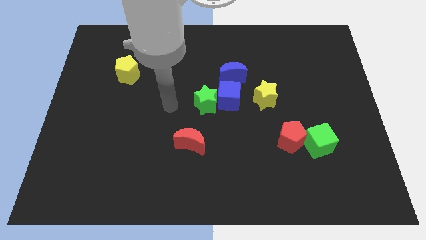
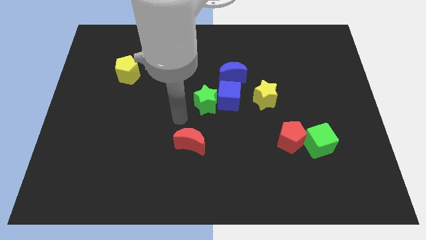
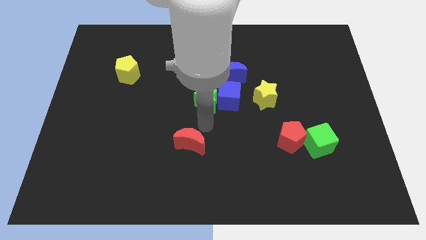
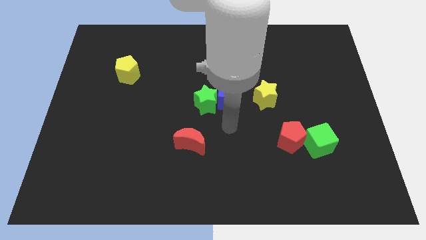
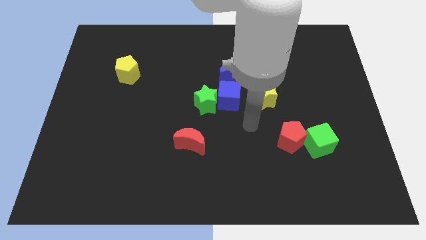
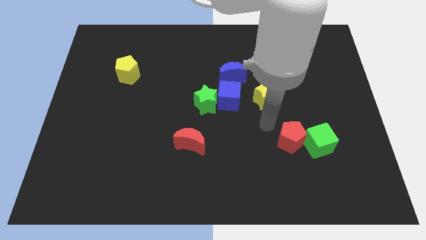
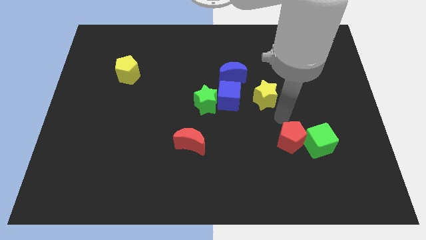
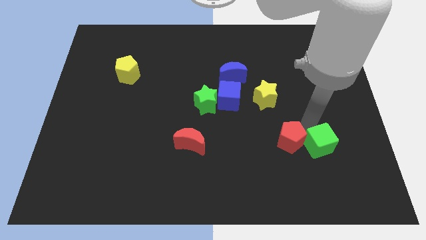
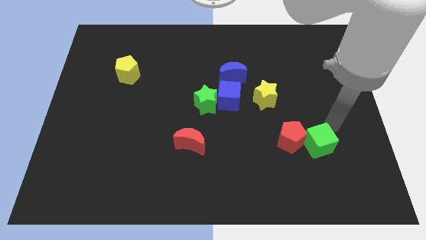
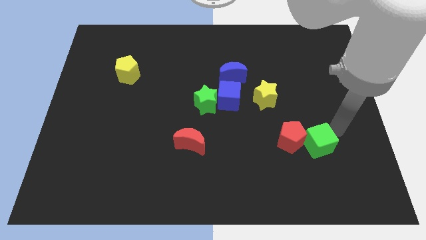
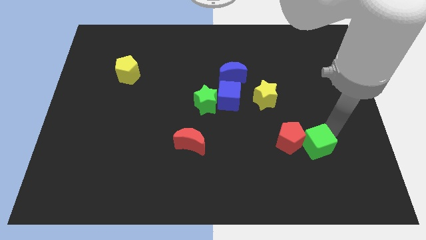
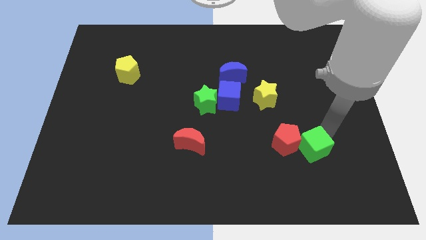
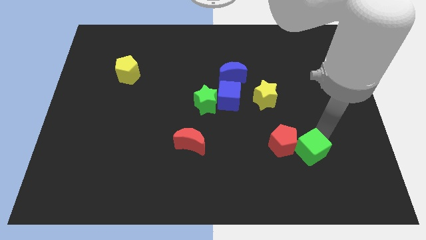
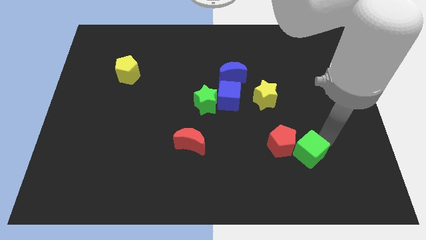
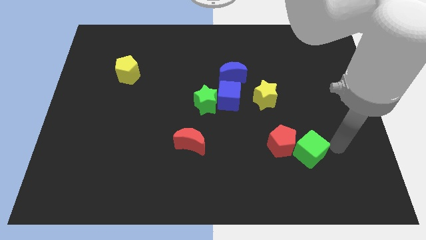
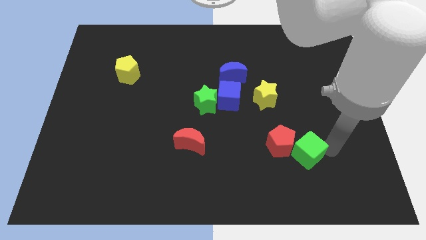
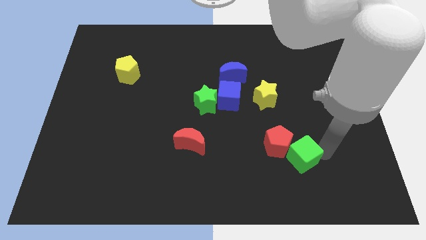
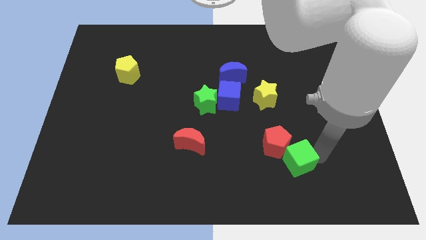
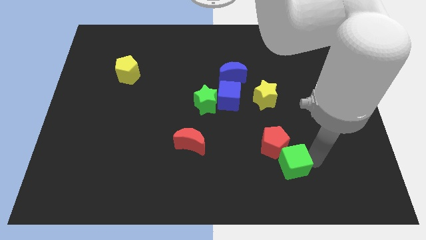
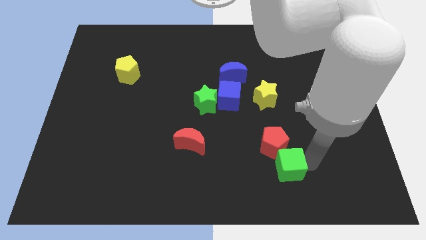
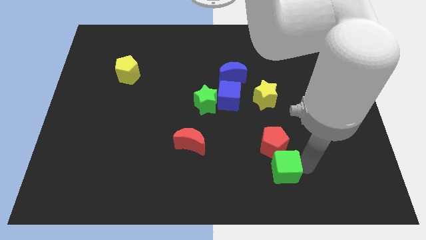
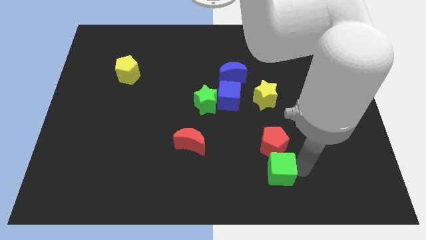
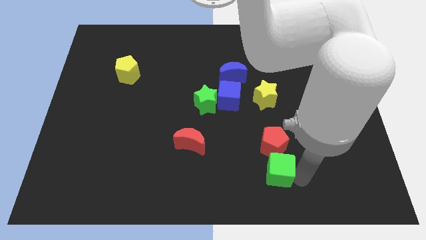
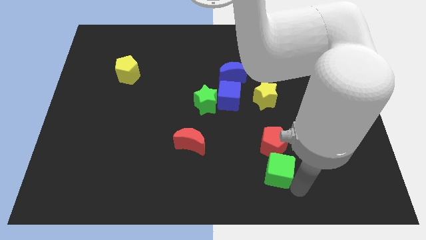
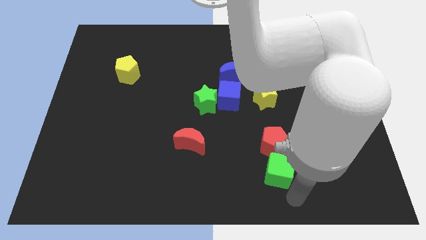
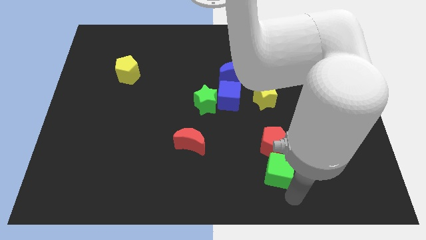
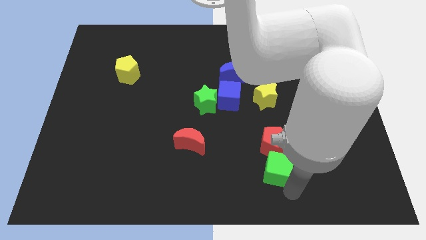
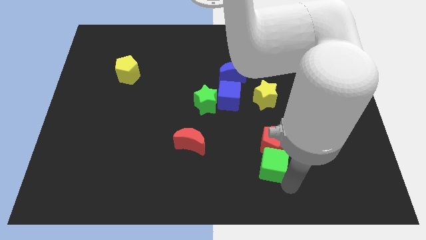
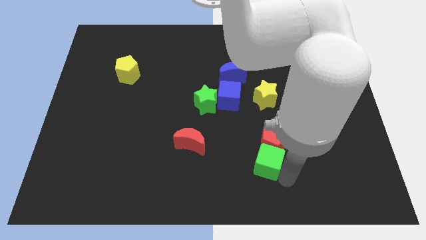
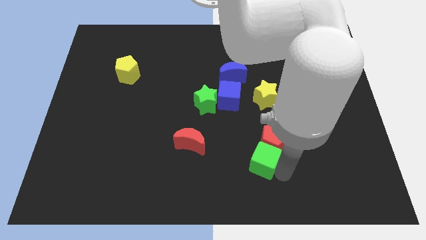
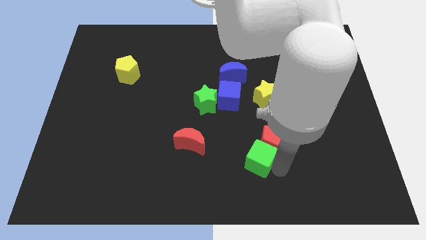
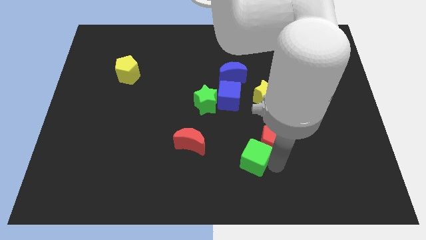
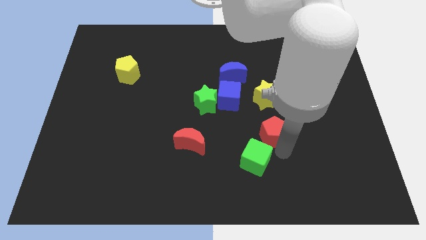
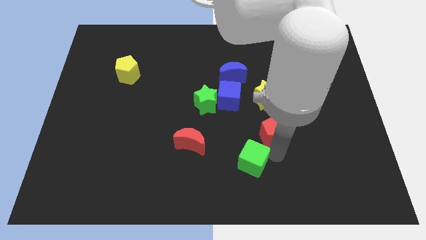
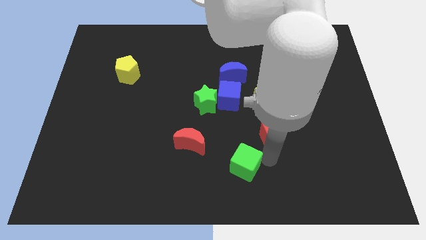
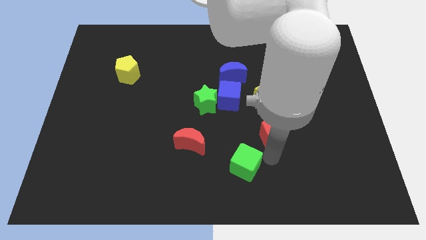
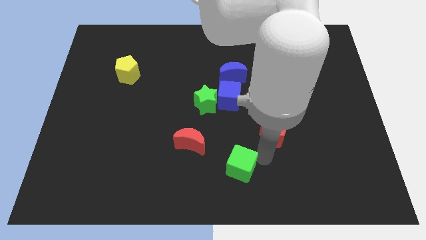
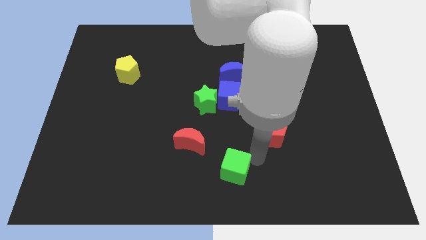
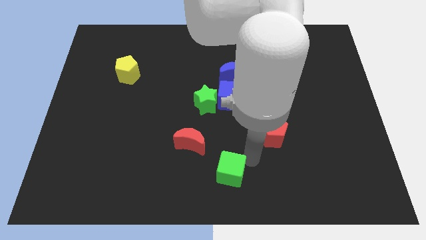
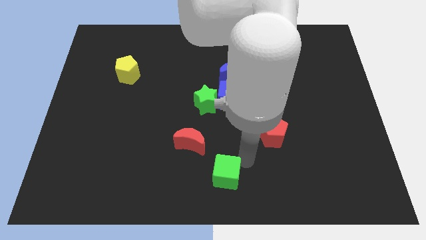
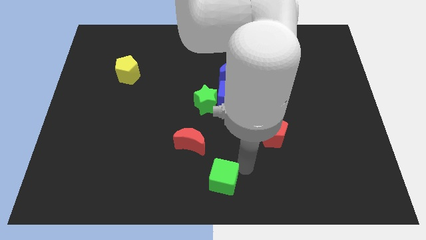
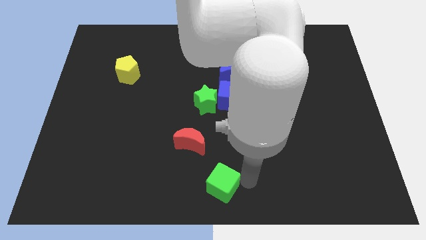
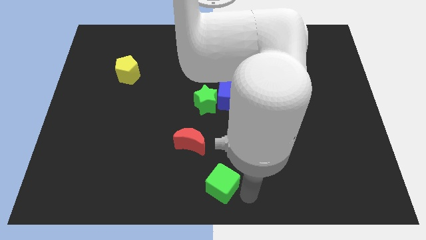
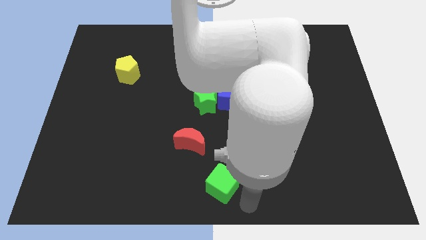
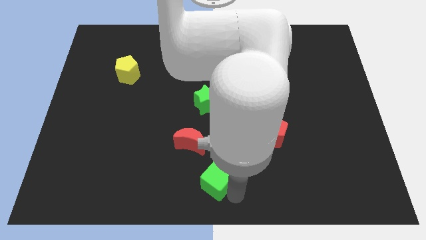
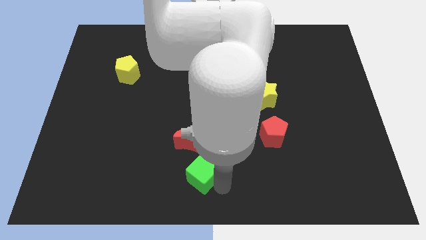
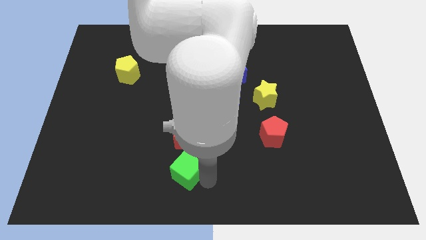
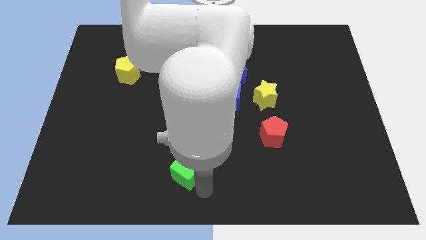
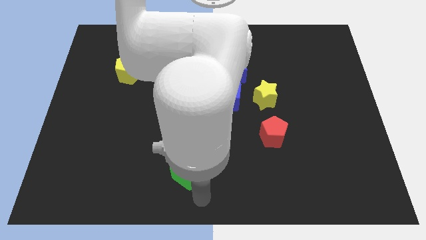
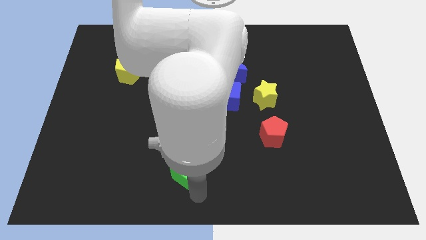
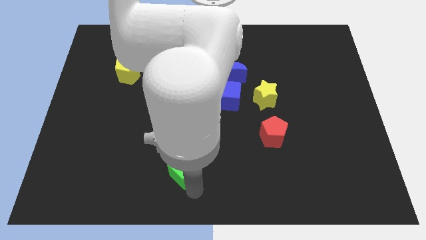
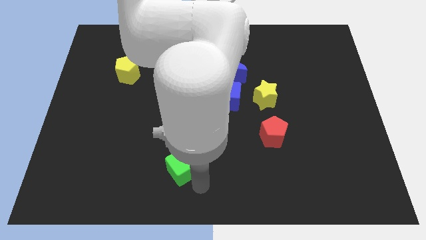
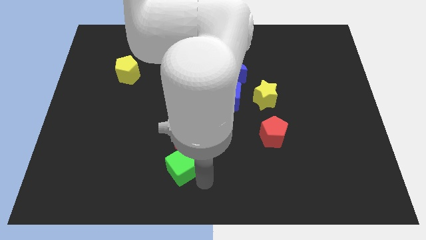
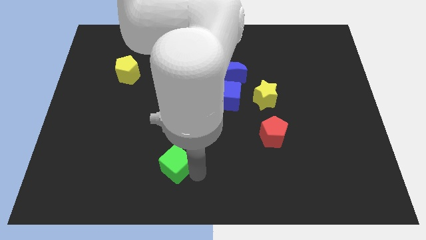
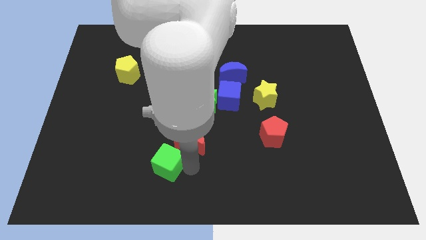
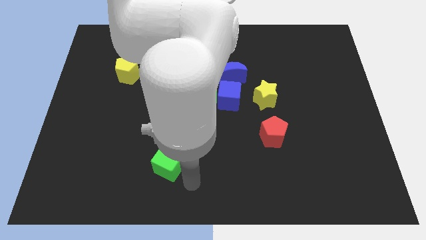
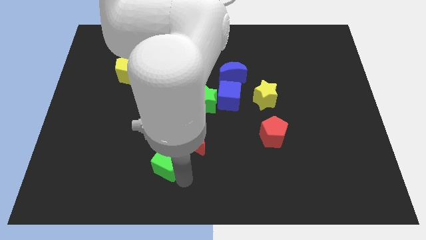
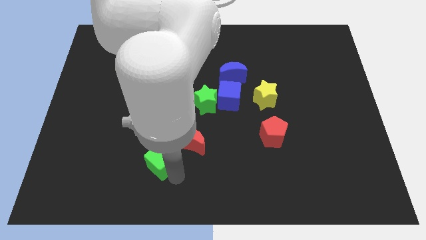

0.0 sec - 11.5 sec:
slide the green cube left of the red moon
